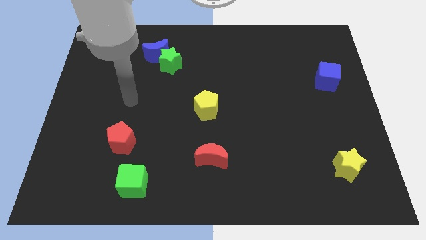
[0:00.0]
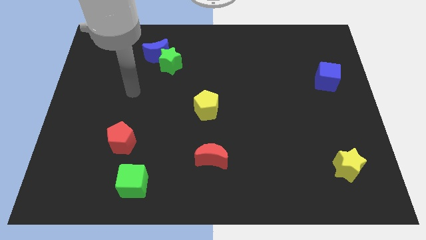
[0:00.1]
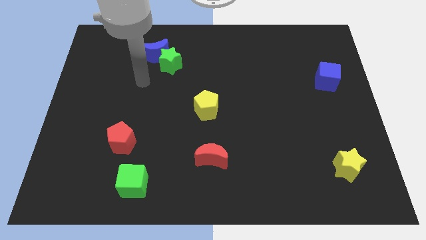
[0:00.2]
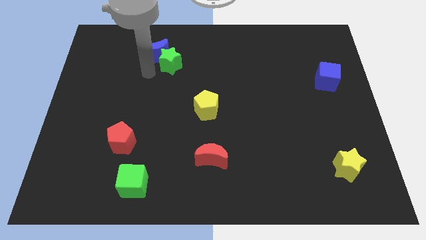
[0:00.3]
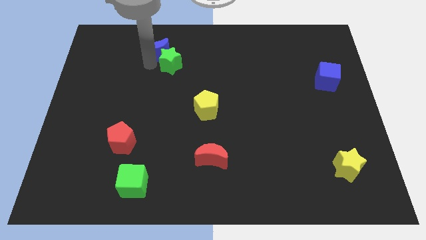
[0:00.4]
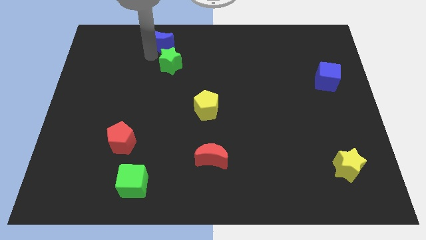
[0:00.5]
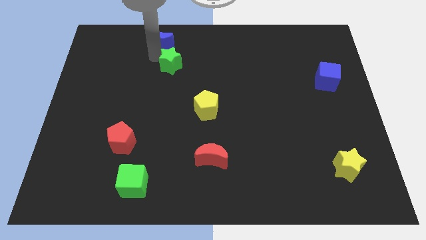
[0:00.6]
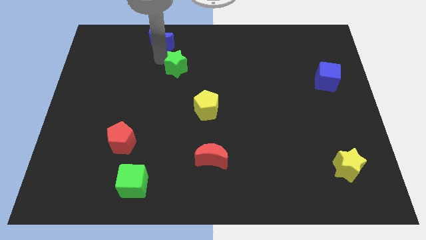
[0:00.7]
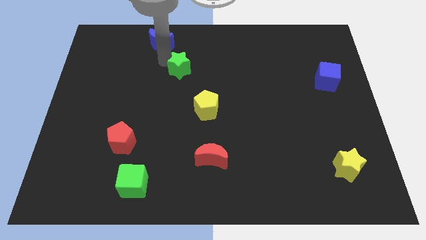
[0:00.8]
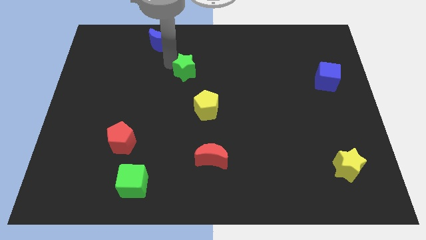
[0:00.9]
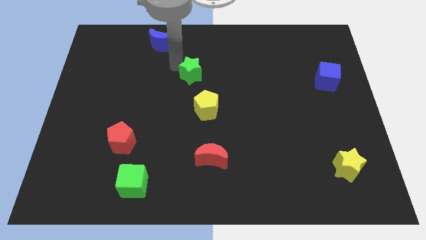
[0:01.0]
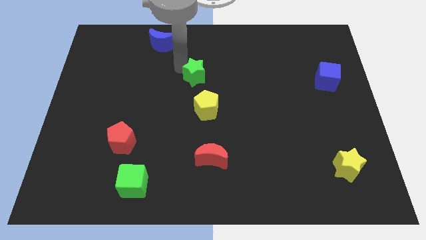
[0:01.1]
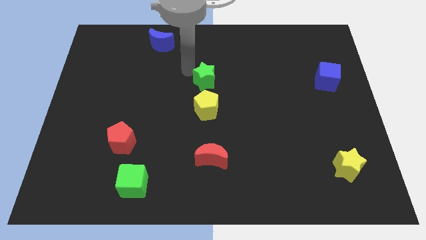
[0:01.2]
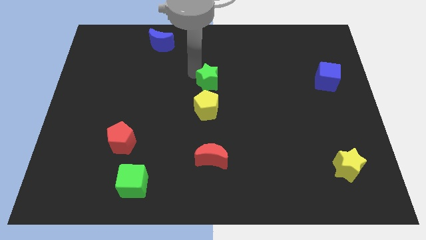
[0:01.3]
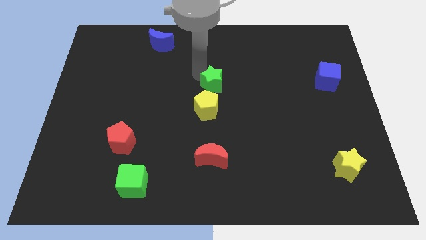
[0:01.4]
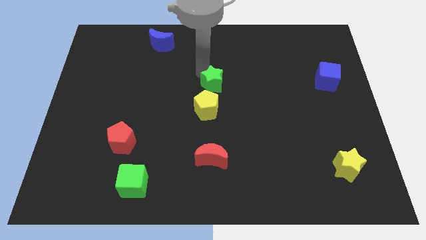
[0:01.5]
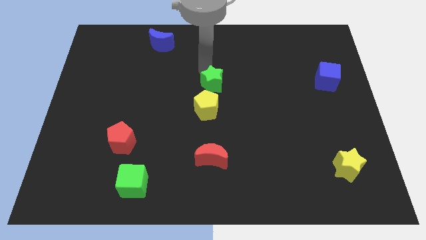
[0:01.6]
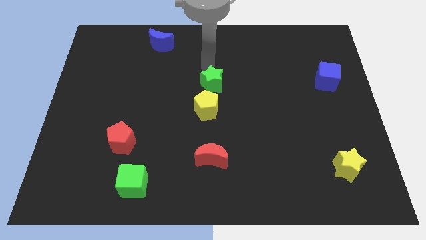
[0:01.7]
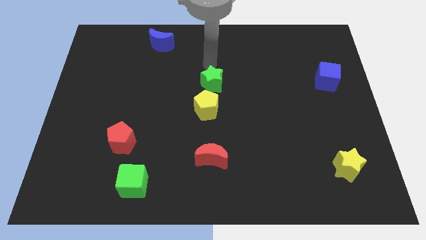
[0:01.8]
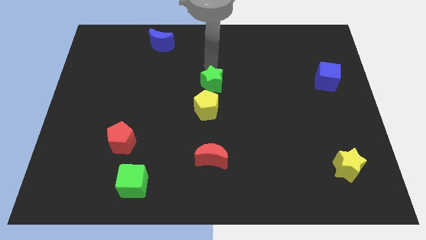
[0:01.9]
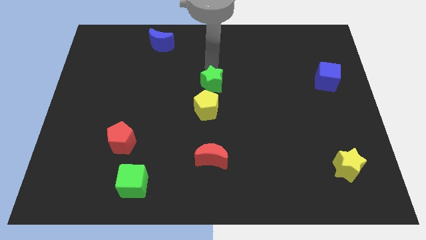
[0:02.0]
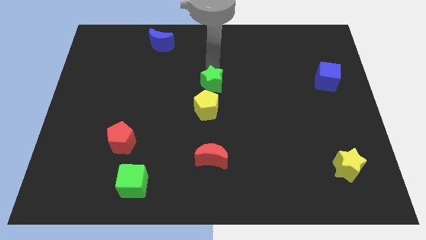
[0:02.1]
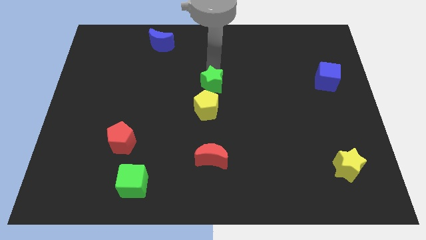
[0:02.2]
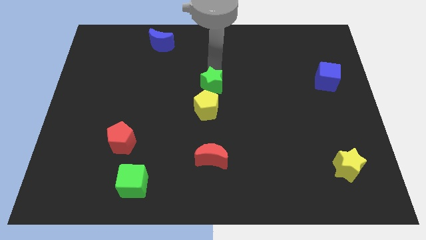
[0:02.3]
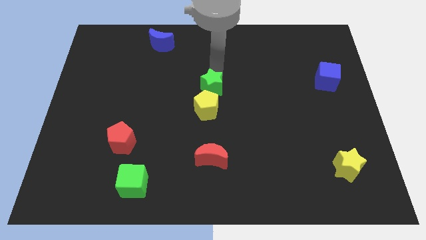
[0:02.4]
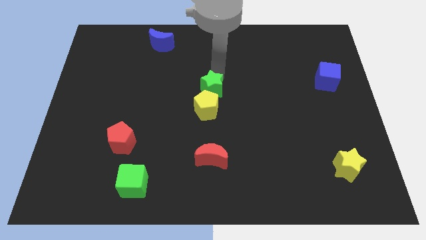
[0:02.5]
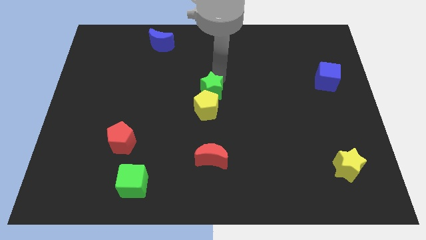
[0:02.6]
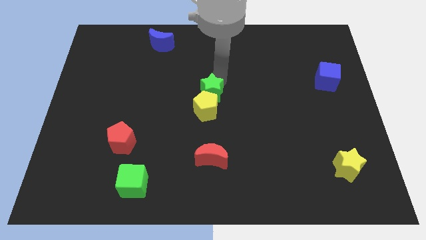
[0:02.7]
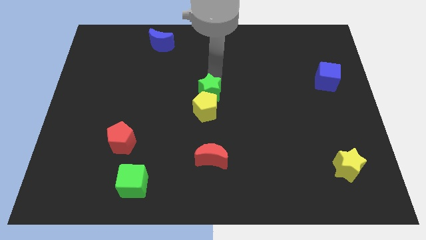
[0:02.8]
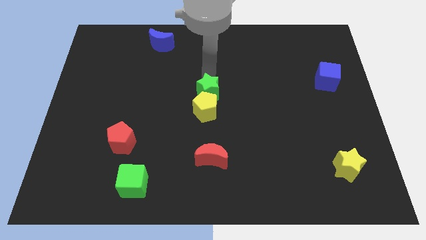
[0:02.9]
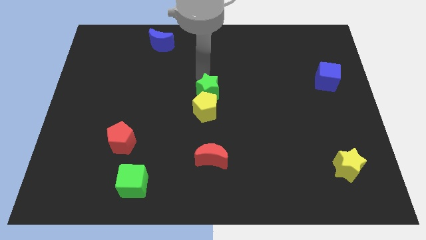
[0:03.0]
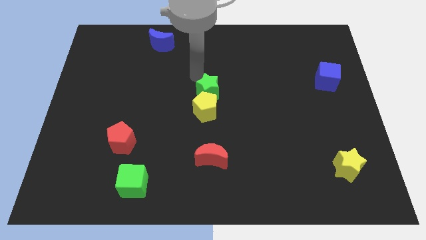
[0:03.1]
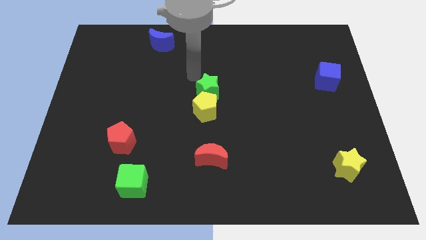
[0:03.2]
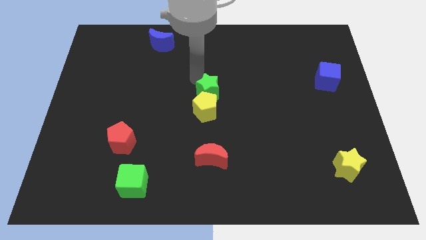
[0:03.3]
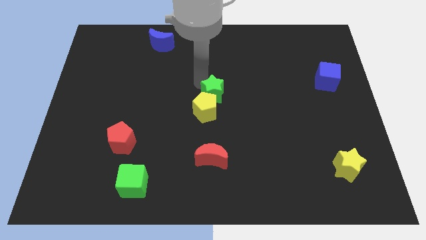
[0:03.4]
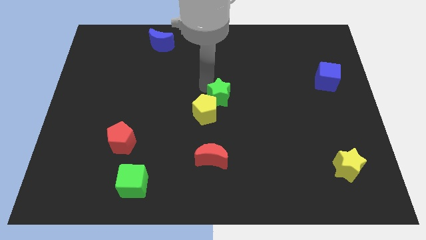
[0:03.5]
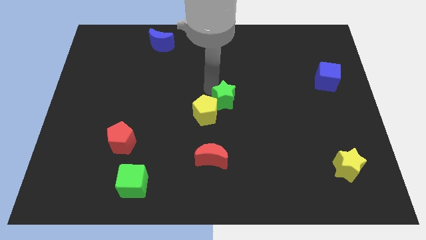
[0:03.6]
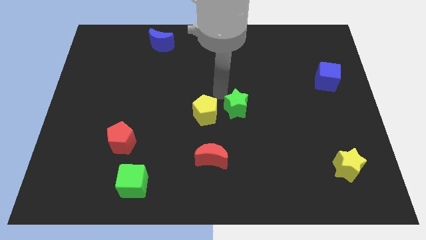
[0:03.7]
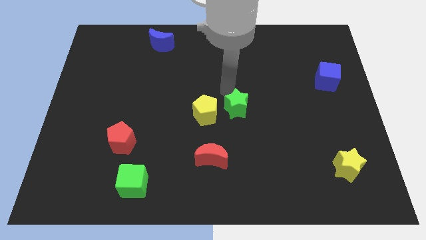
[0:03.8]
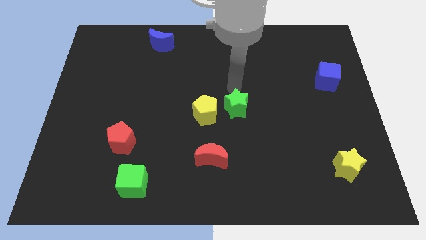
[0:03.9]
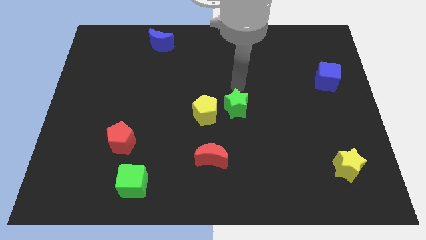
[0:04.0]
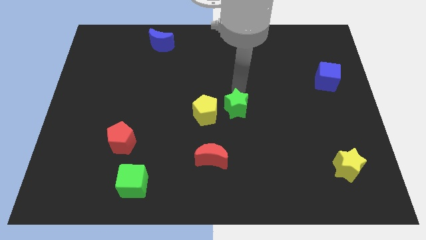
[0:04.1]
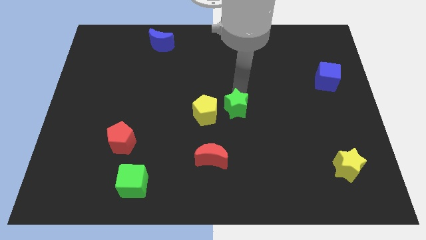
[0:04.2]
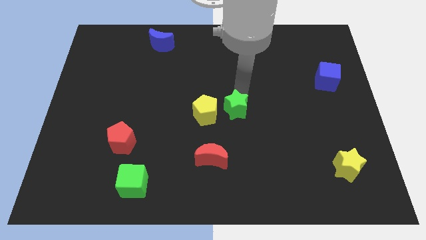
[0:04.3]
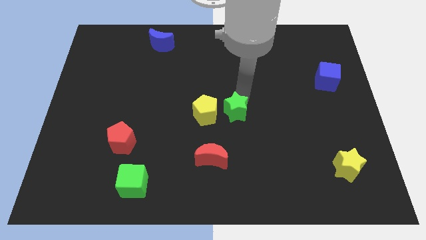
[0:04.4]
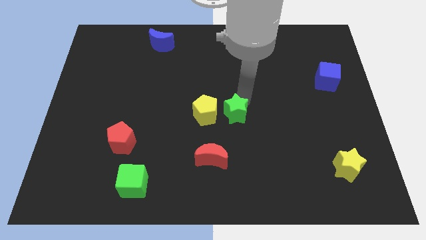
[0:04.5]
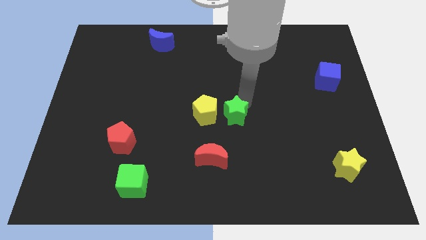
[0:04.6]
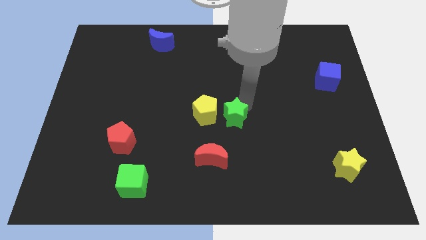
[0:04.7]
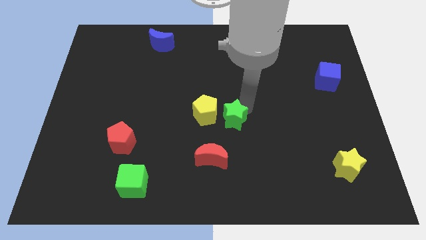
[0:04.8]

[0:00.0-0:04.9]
slide the green star diagonally up and to the right of the red moon

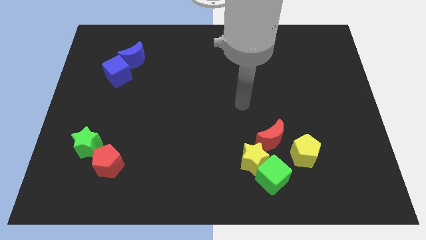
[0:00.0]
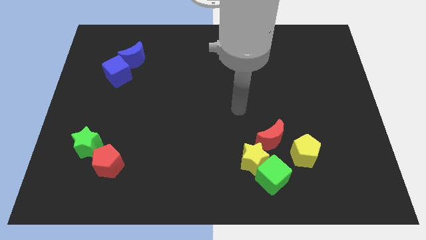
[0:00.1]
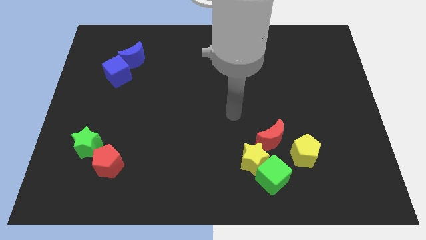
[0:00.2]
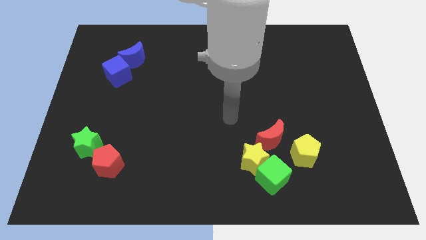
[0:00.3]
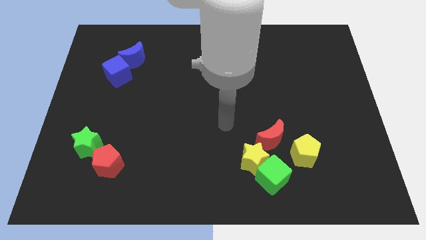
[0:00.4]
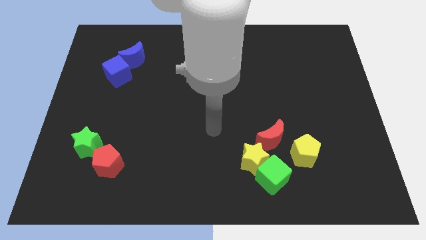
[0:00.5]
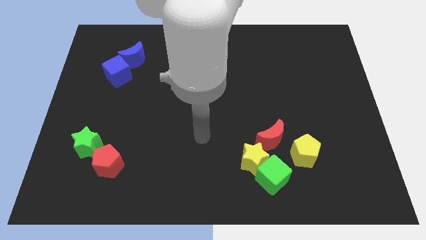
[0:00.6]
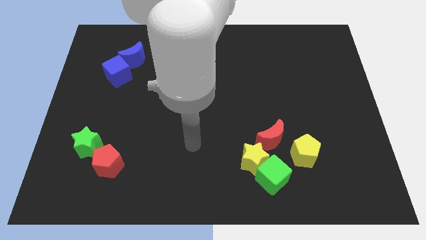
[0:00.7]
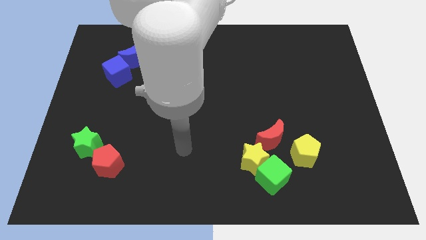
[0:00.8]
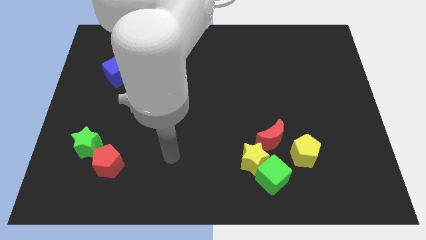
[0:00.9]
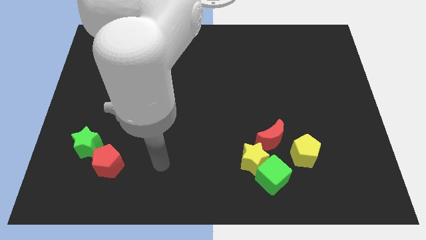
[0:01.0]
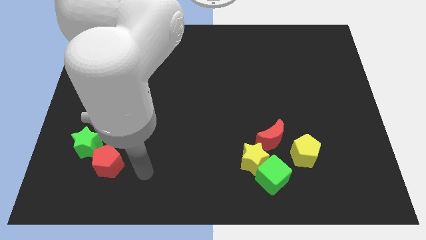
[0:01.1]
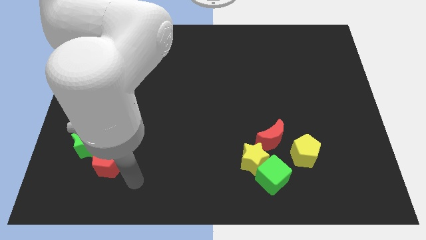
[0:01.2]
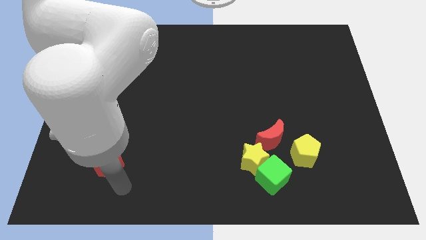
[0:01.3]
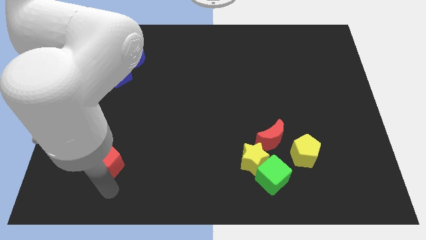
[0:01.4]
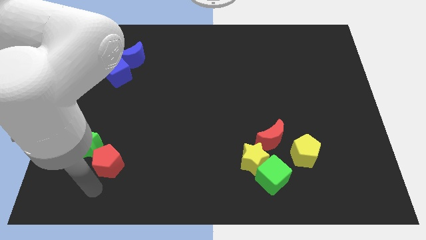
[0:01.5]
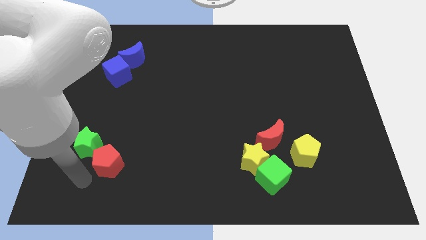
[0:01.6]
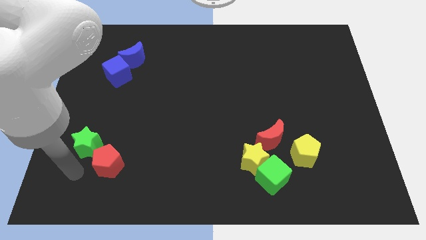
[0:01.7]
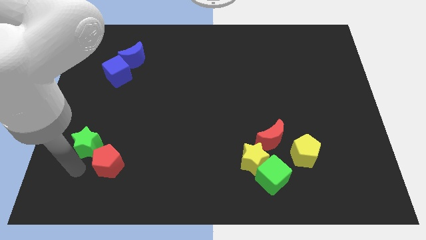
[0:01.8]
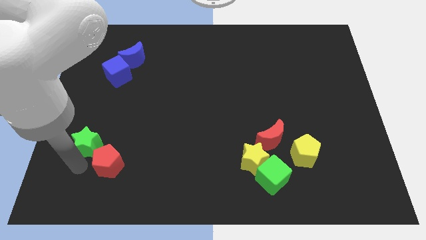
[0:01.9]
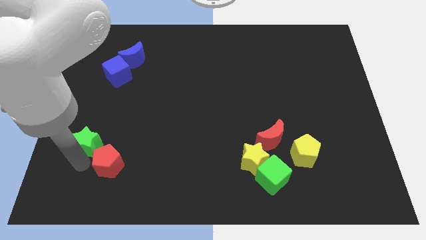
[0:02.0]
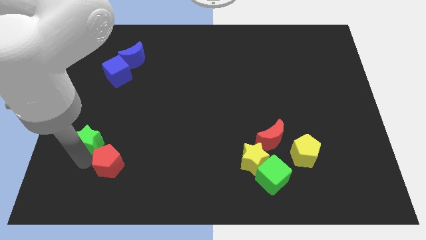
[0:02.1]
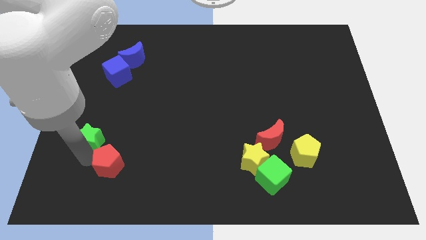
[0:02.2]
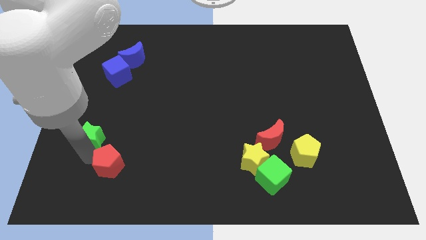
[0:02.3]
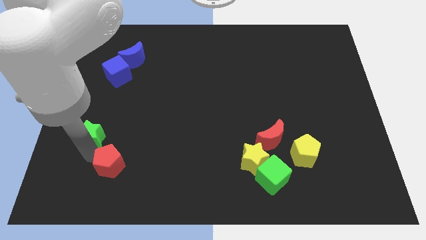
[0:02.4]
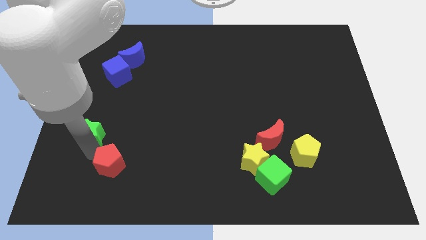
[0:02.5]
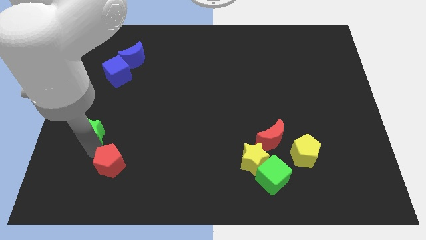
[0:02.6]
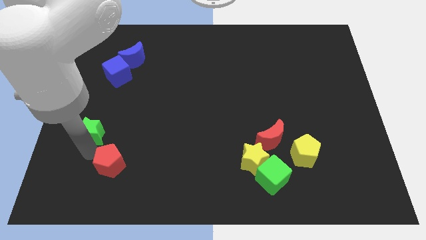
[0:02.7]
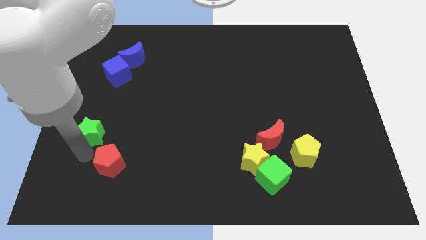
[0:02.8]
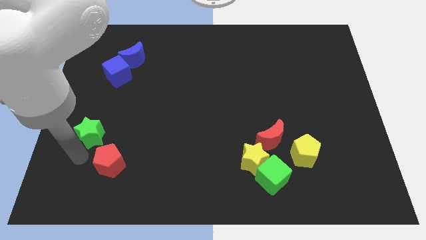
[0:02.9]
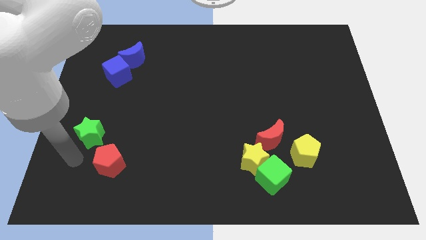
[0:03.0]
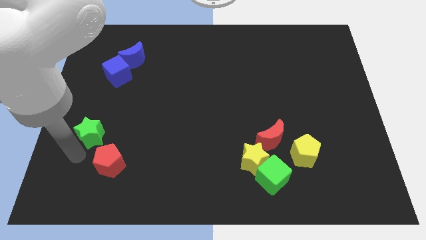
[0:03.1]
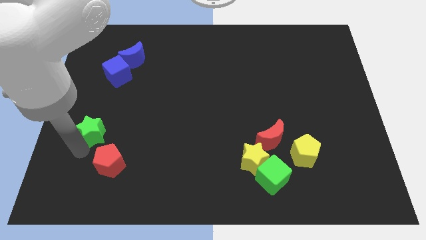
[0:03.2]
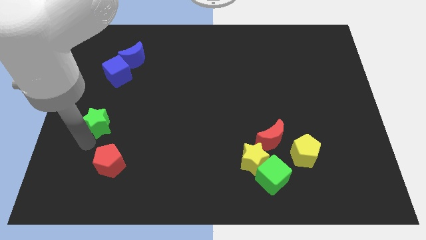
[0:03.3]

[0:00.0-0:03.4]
push the green star to the bottom of the blue cube
